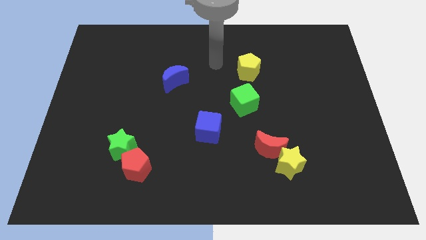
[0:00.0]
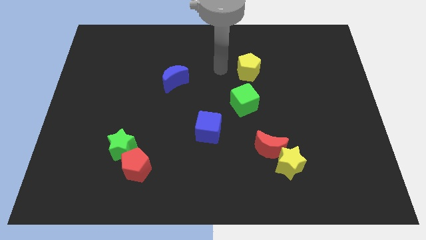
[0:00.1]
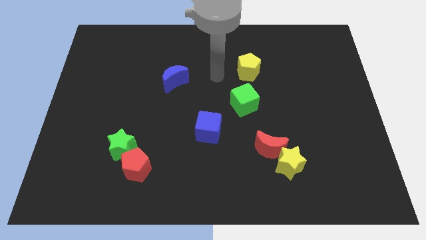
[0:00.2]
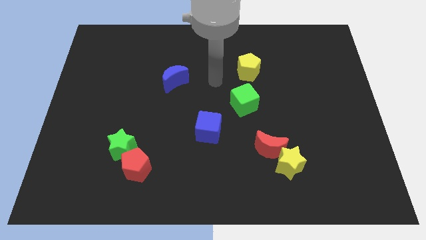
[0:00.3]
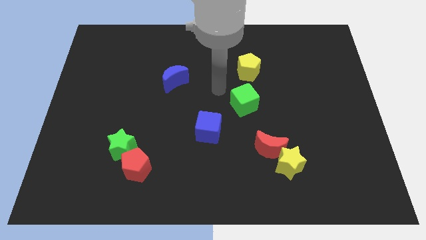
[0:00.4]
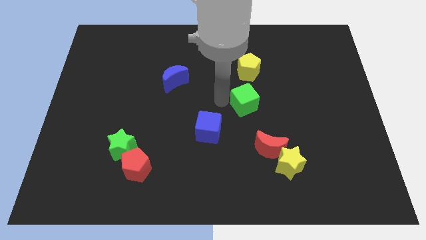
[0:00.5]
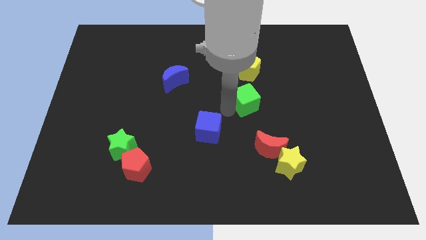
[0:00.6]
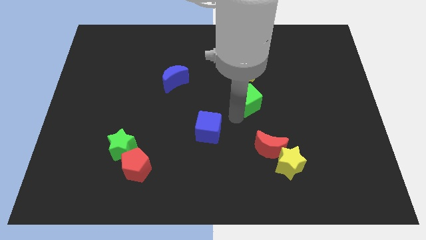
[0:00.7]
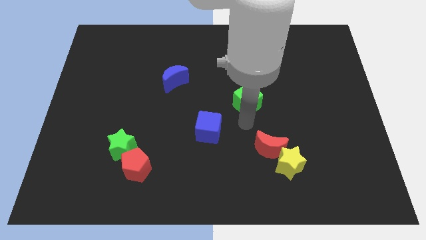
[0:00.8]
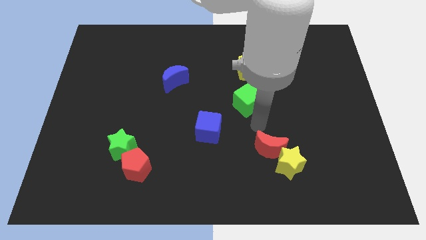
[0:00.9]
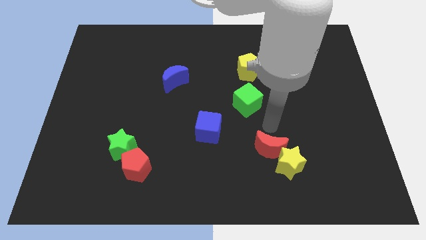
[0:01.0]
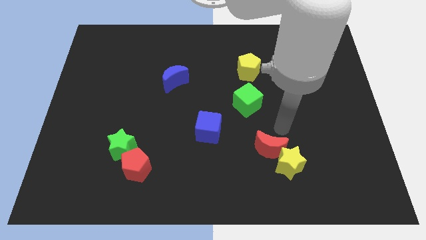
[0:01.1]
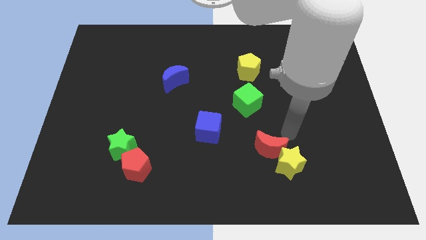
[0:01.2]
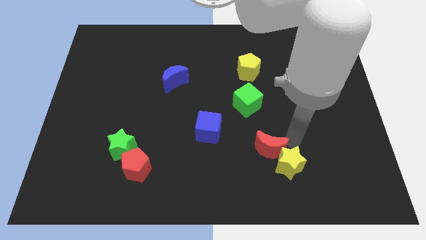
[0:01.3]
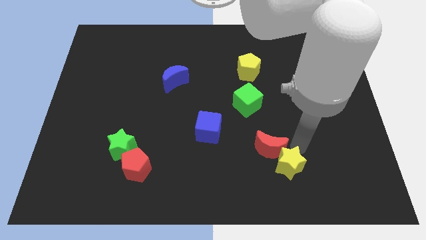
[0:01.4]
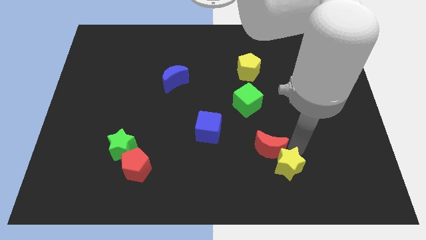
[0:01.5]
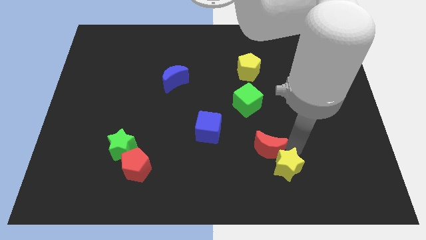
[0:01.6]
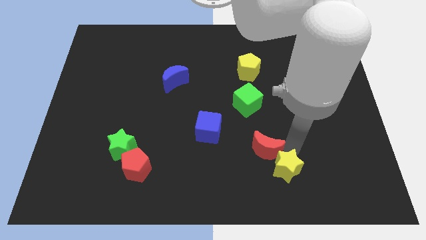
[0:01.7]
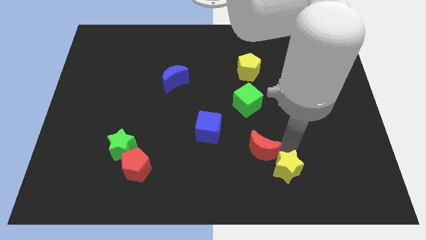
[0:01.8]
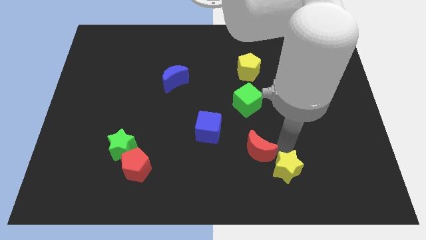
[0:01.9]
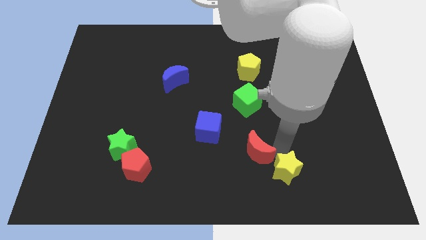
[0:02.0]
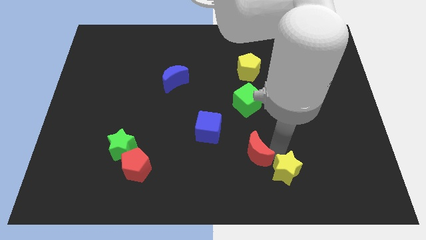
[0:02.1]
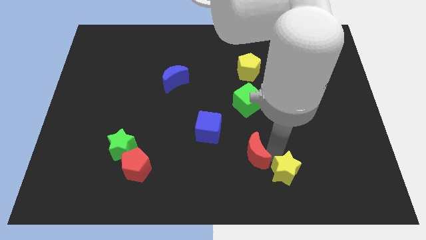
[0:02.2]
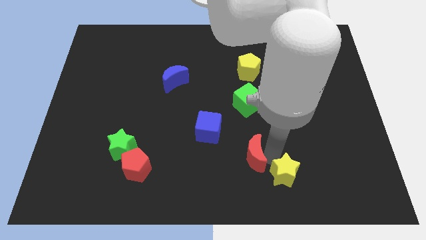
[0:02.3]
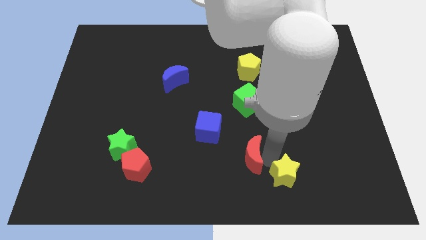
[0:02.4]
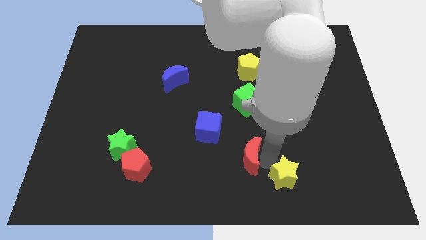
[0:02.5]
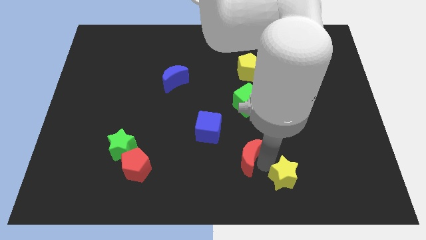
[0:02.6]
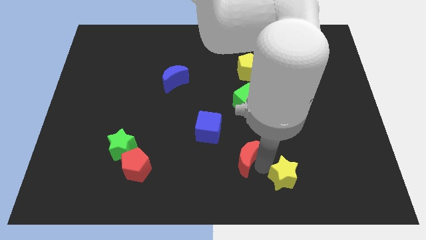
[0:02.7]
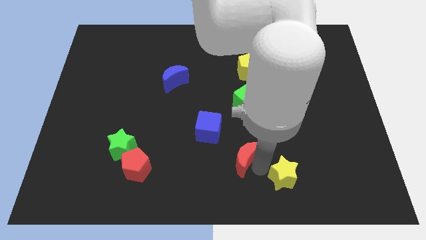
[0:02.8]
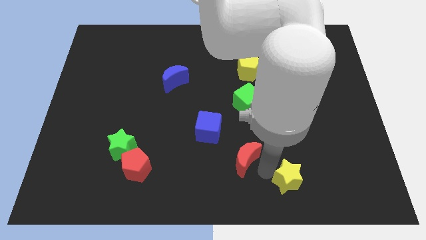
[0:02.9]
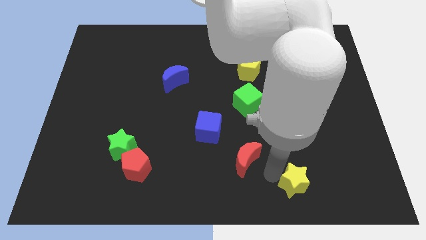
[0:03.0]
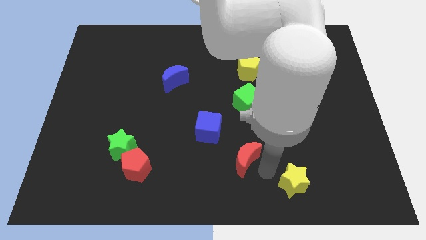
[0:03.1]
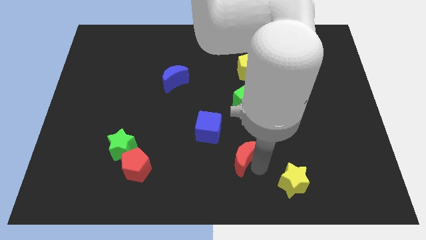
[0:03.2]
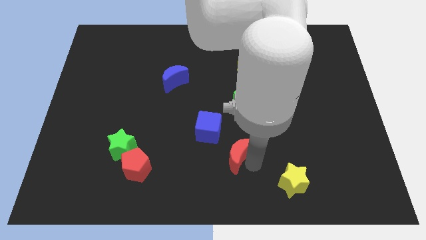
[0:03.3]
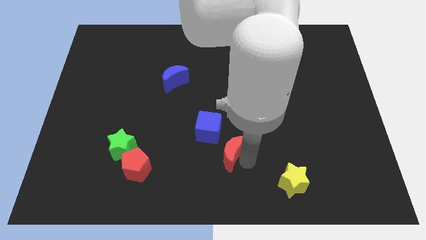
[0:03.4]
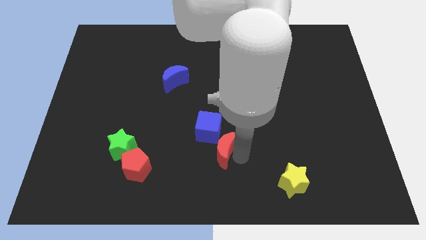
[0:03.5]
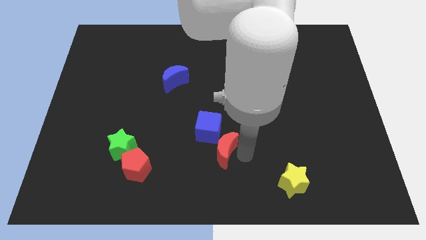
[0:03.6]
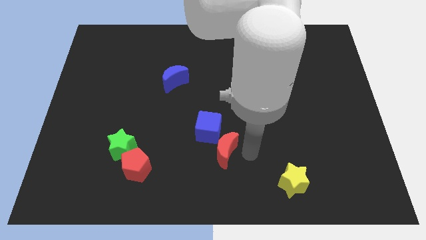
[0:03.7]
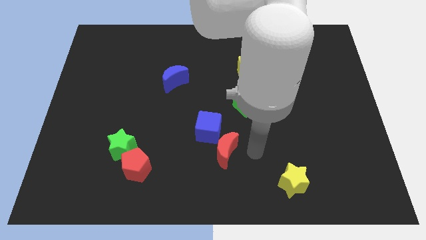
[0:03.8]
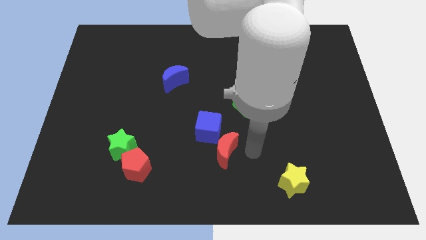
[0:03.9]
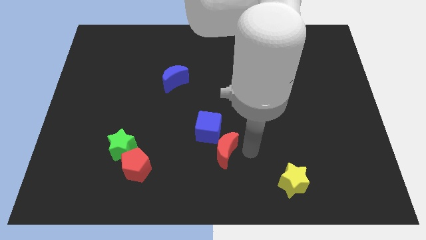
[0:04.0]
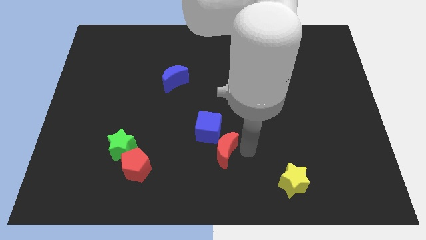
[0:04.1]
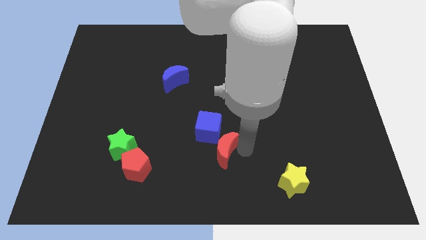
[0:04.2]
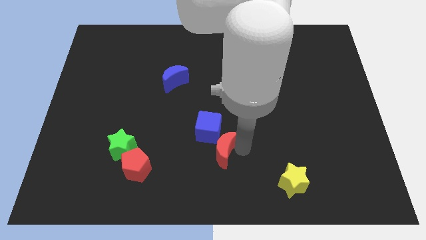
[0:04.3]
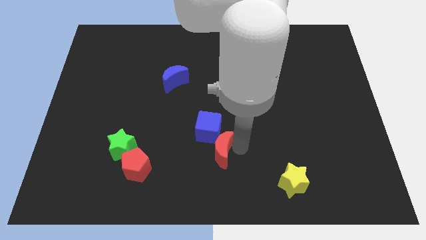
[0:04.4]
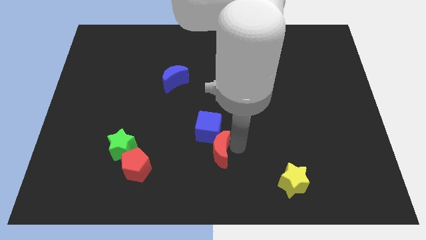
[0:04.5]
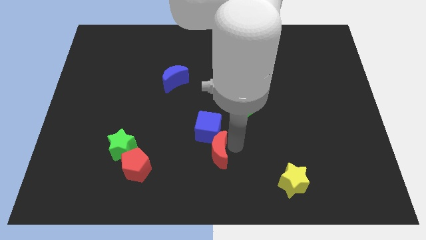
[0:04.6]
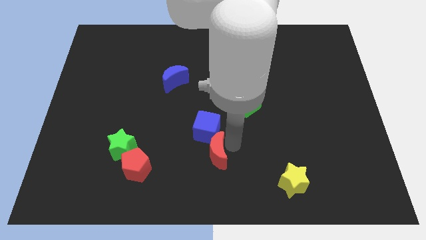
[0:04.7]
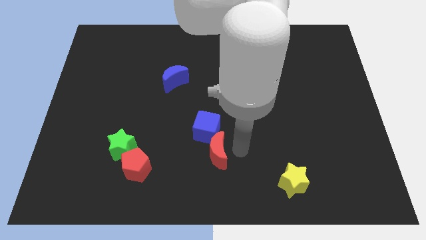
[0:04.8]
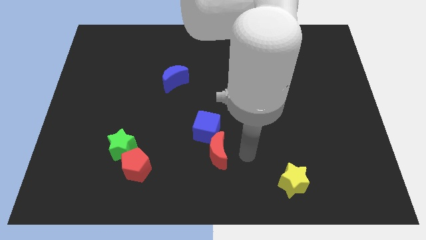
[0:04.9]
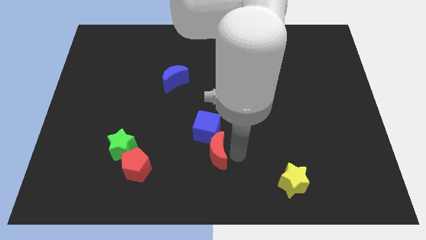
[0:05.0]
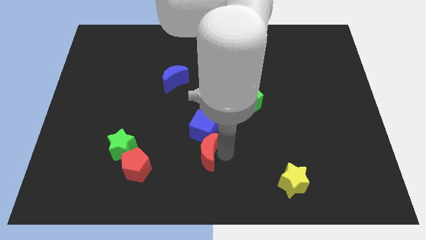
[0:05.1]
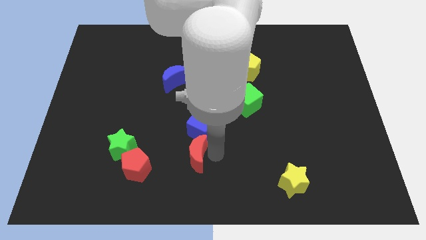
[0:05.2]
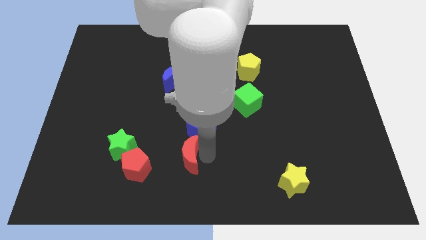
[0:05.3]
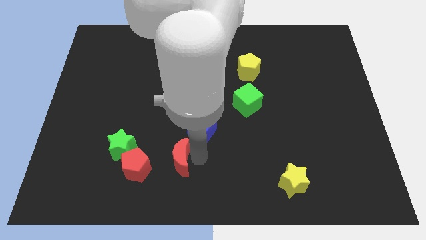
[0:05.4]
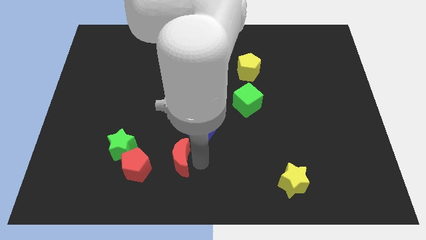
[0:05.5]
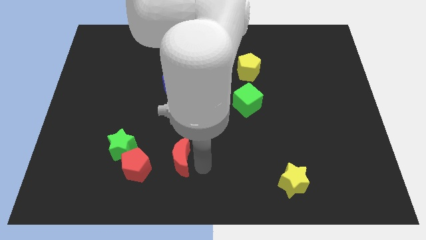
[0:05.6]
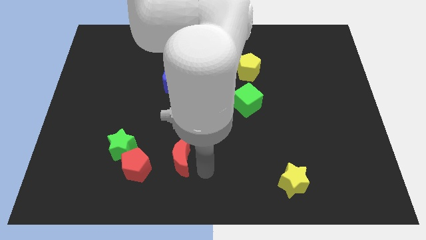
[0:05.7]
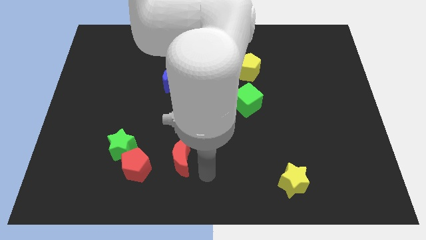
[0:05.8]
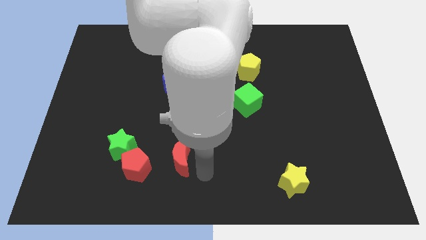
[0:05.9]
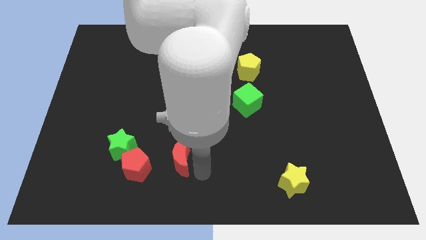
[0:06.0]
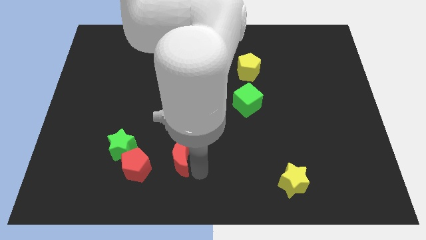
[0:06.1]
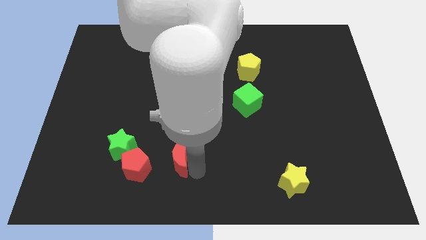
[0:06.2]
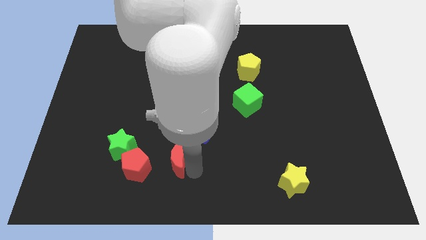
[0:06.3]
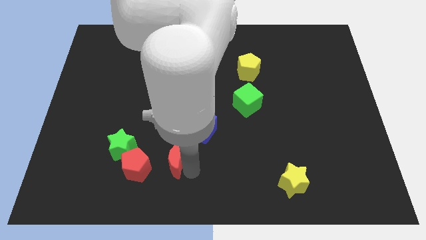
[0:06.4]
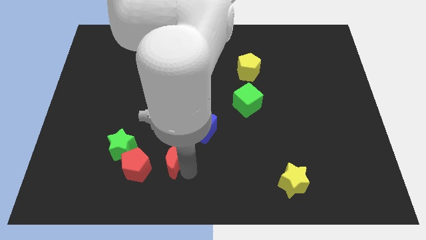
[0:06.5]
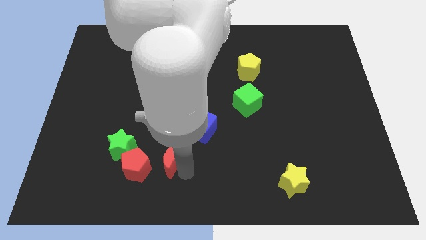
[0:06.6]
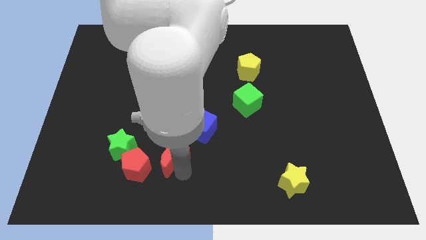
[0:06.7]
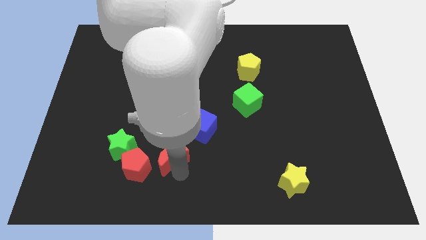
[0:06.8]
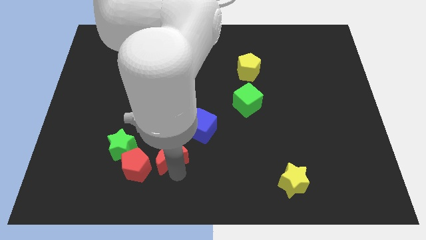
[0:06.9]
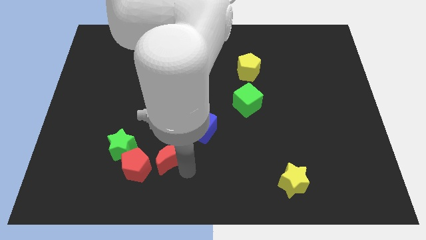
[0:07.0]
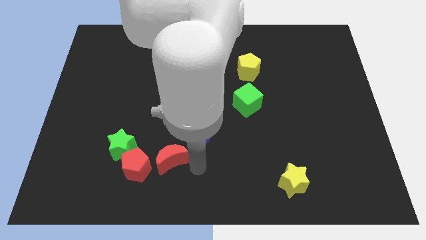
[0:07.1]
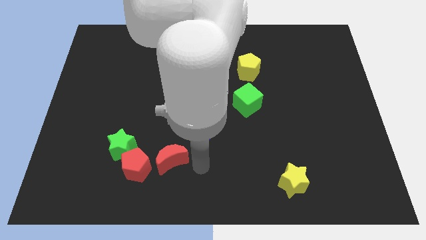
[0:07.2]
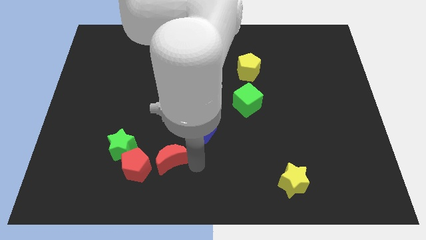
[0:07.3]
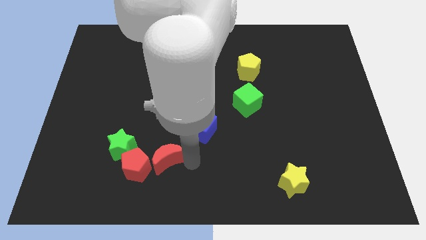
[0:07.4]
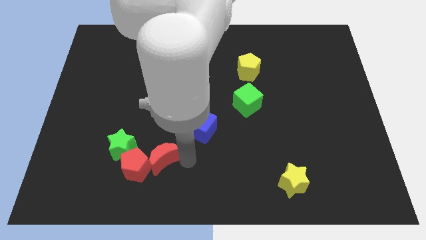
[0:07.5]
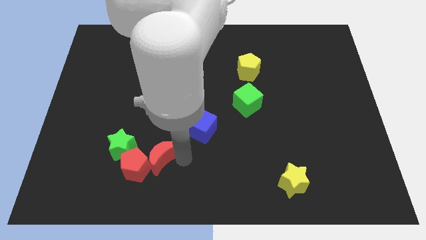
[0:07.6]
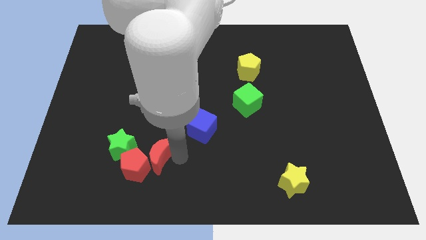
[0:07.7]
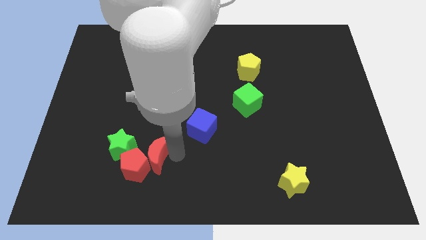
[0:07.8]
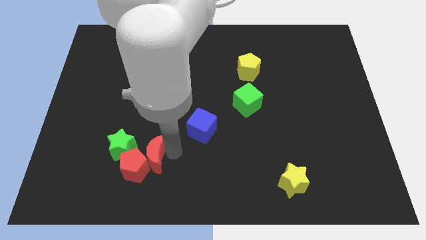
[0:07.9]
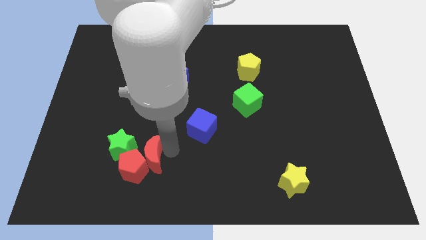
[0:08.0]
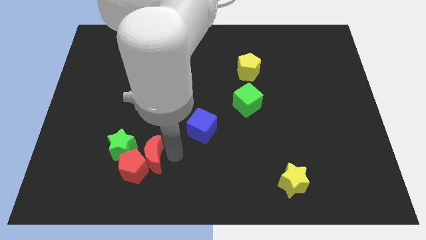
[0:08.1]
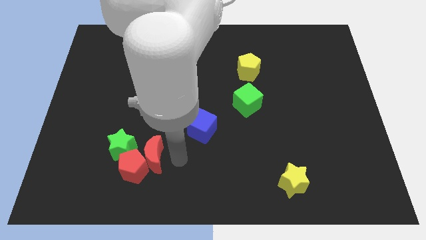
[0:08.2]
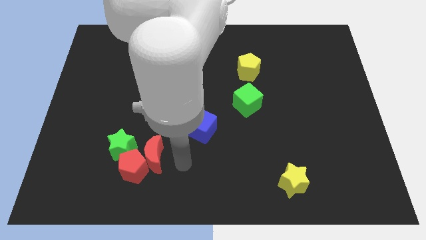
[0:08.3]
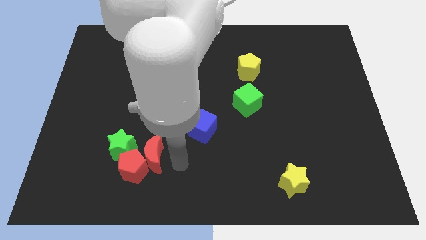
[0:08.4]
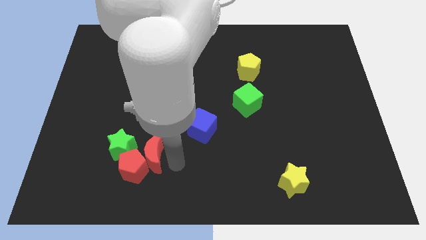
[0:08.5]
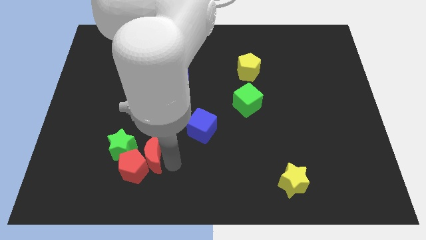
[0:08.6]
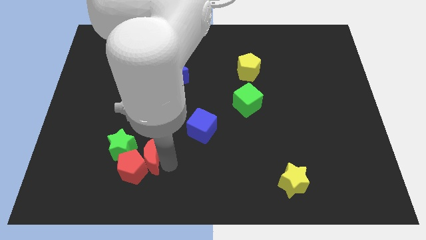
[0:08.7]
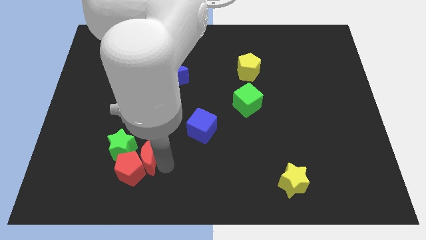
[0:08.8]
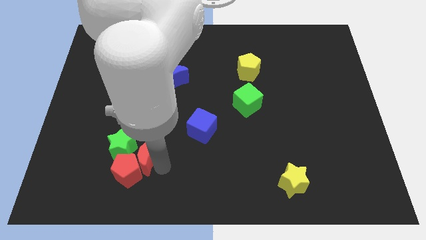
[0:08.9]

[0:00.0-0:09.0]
move the red moon towards the green star
